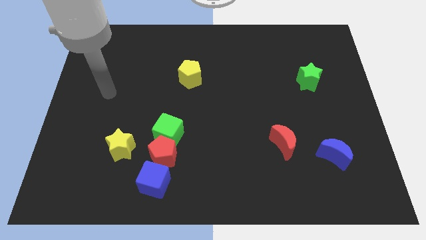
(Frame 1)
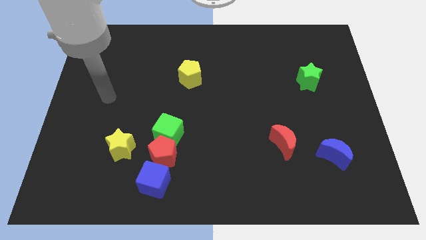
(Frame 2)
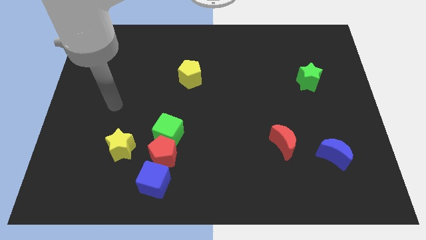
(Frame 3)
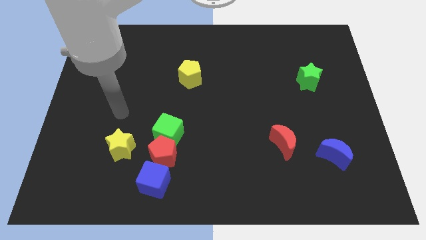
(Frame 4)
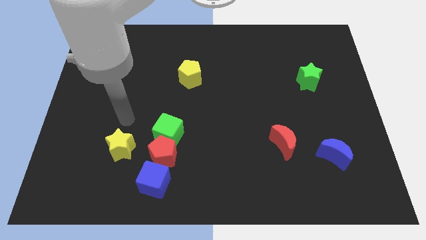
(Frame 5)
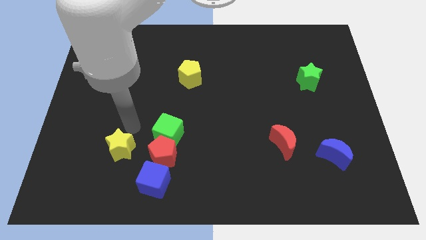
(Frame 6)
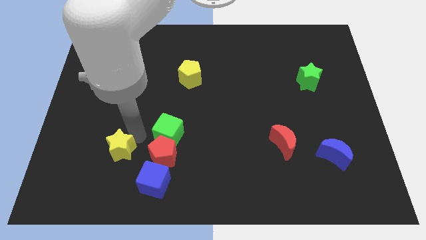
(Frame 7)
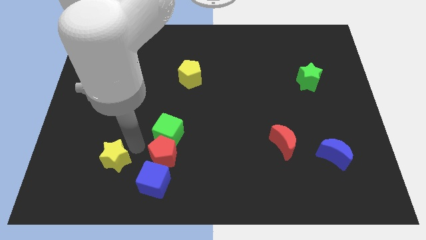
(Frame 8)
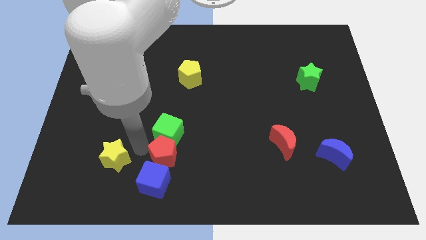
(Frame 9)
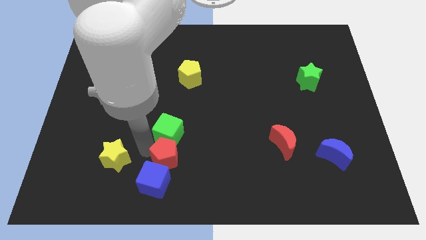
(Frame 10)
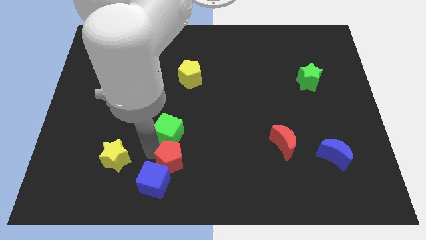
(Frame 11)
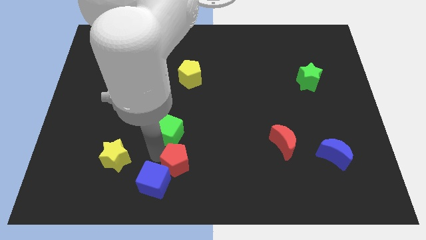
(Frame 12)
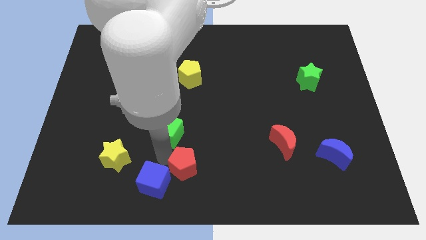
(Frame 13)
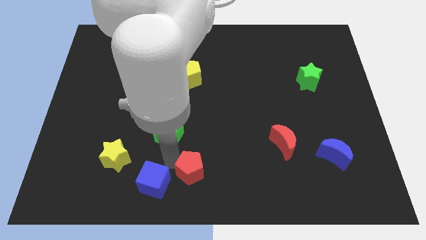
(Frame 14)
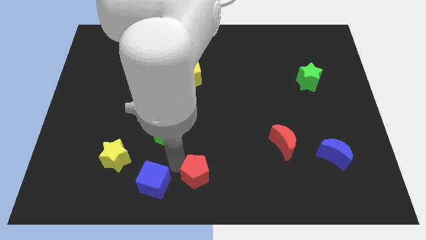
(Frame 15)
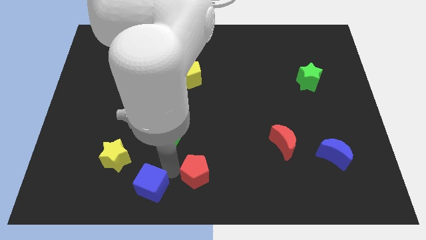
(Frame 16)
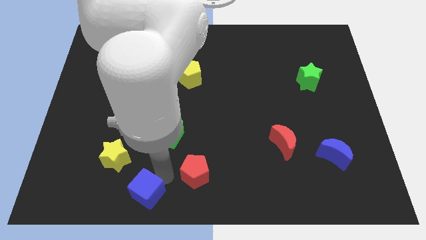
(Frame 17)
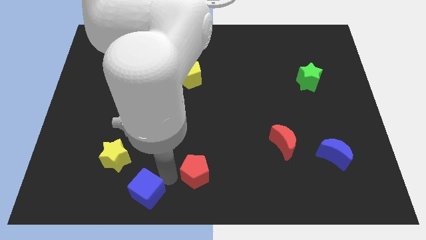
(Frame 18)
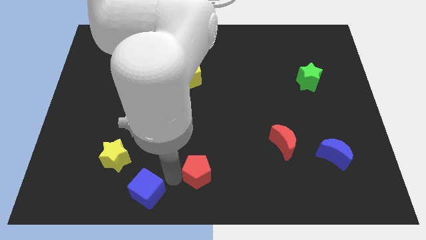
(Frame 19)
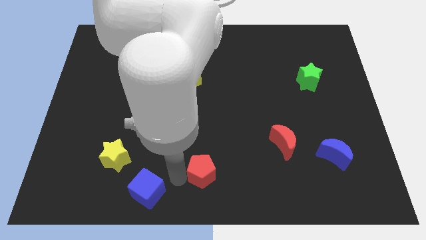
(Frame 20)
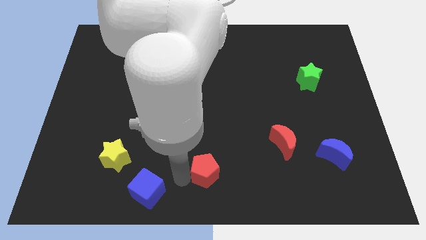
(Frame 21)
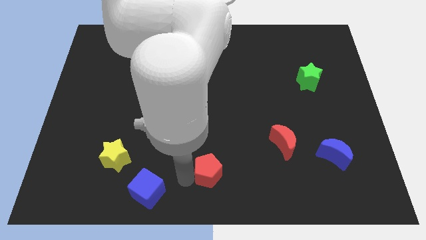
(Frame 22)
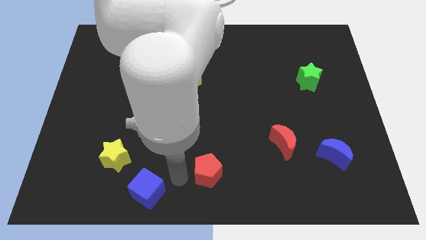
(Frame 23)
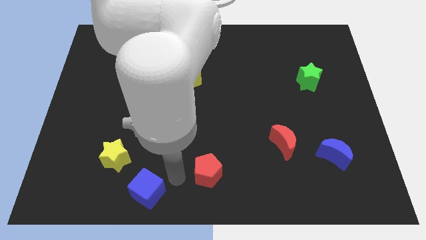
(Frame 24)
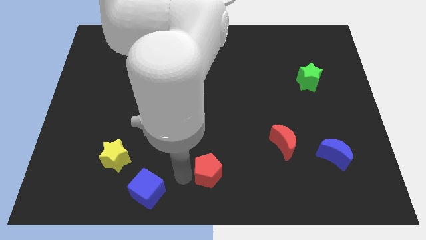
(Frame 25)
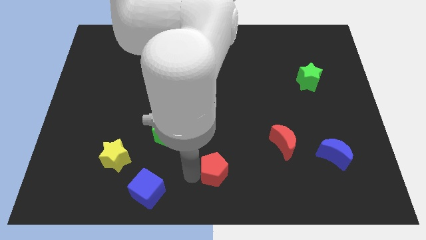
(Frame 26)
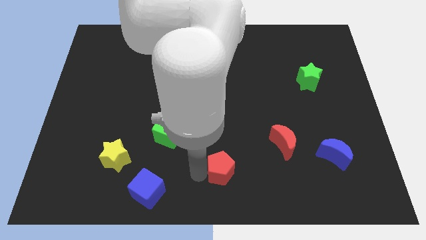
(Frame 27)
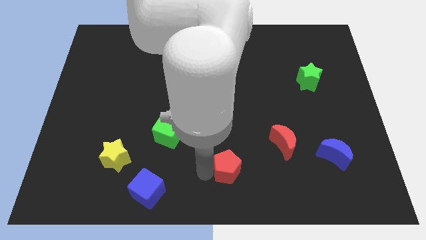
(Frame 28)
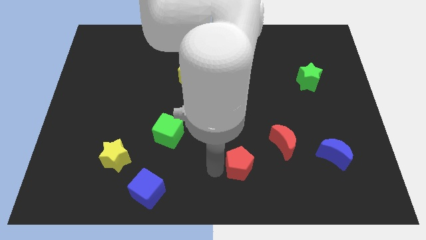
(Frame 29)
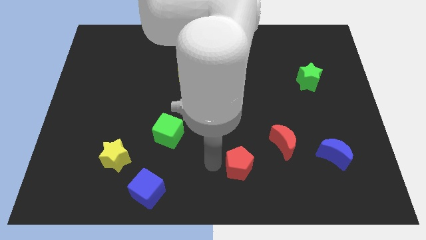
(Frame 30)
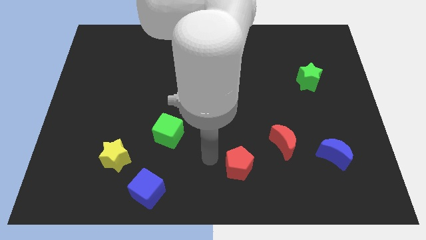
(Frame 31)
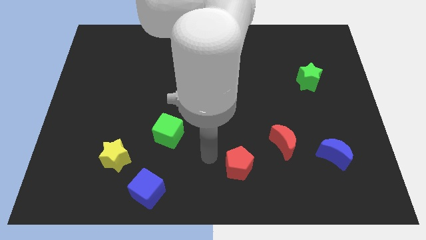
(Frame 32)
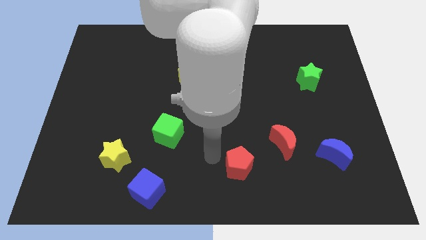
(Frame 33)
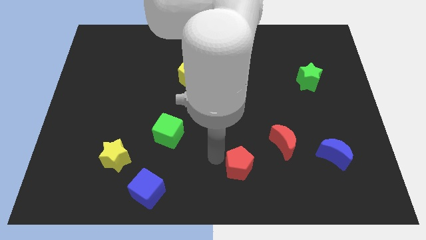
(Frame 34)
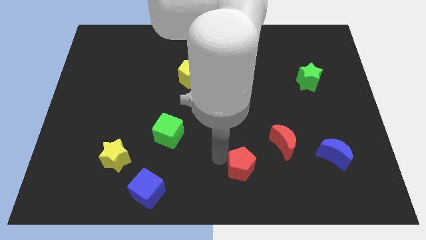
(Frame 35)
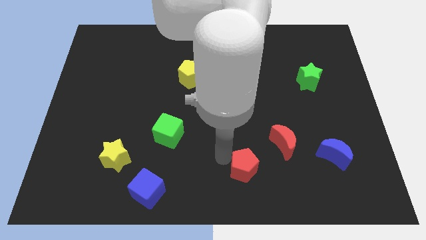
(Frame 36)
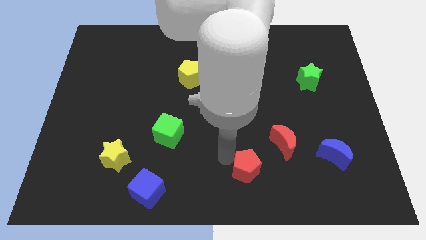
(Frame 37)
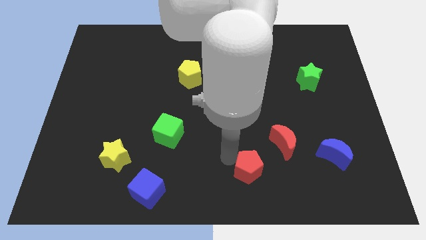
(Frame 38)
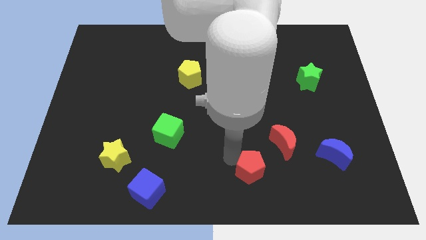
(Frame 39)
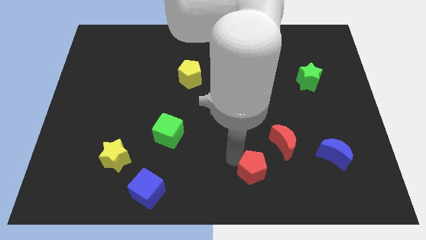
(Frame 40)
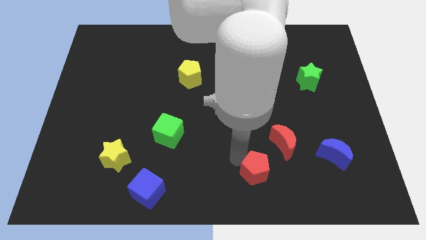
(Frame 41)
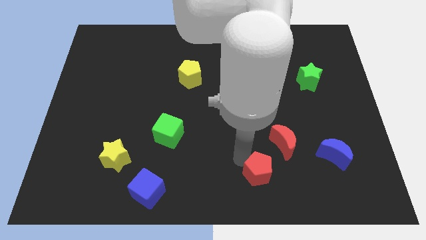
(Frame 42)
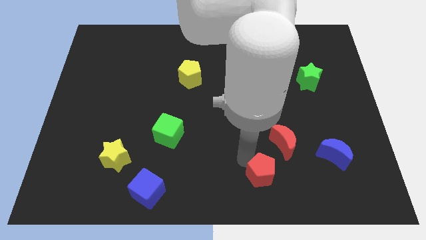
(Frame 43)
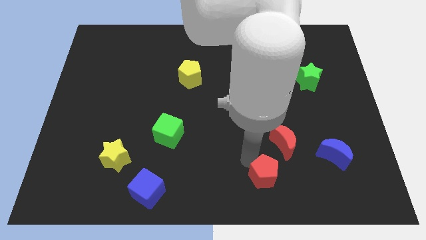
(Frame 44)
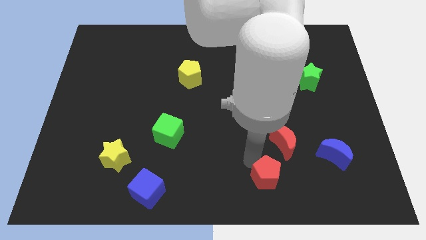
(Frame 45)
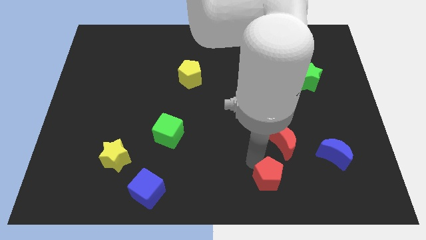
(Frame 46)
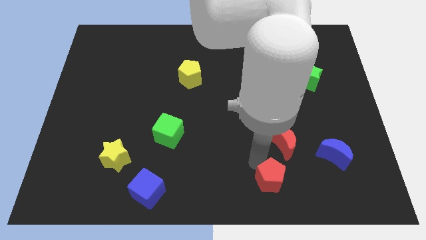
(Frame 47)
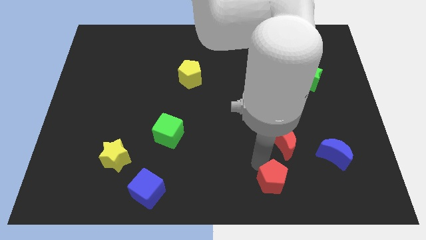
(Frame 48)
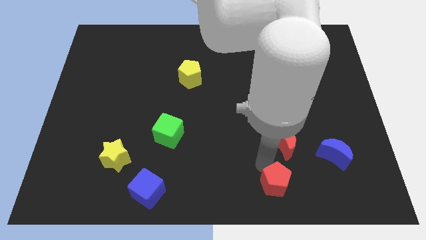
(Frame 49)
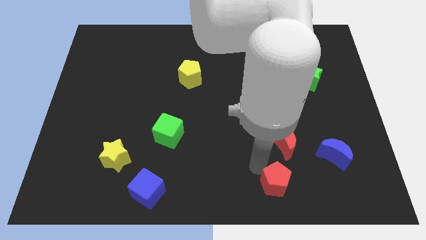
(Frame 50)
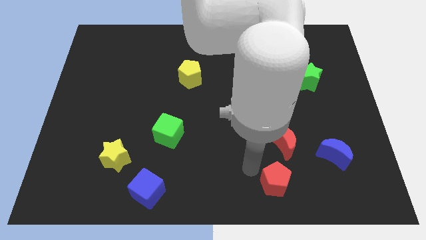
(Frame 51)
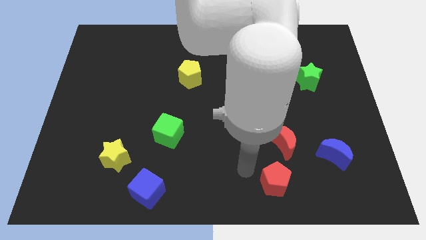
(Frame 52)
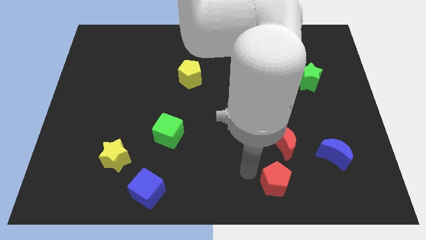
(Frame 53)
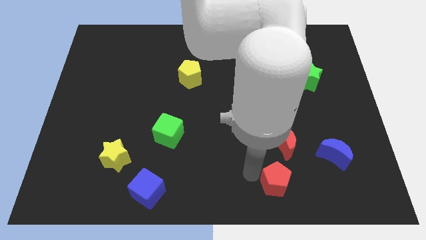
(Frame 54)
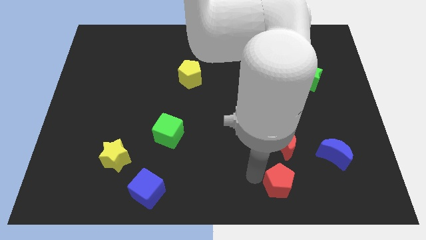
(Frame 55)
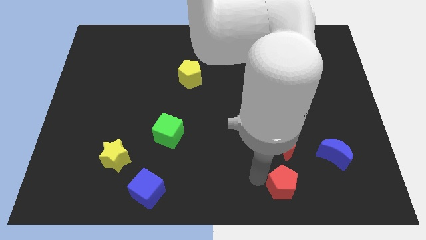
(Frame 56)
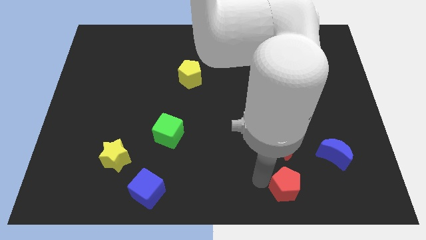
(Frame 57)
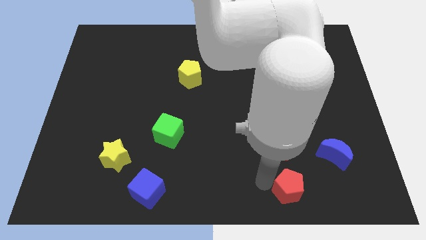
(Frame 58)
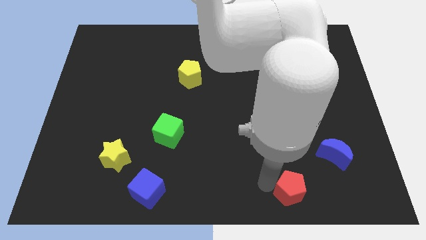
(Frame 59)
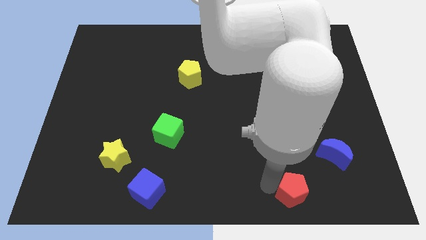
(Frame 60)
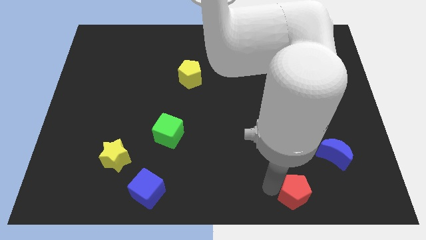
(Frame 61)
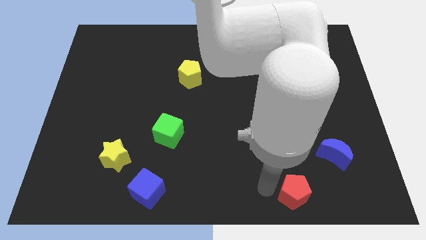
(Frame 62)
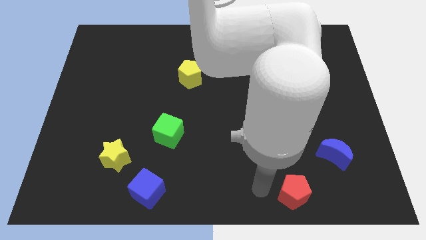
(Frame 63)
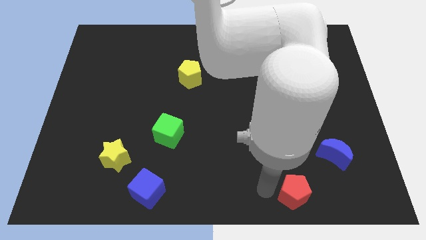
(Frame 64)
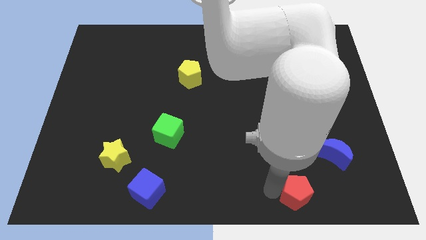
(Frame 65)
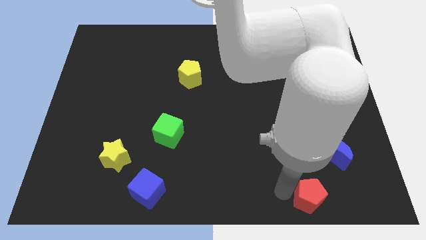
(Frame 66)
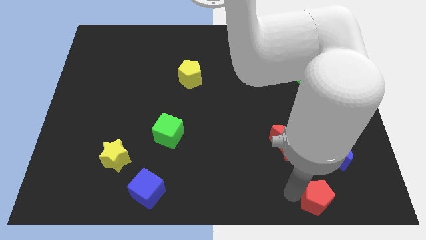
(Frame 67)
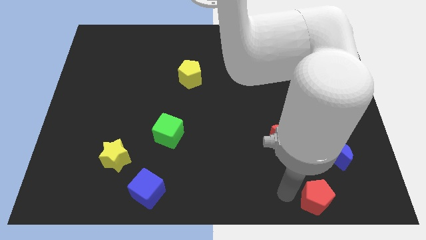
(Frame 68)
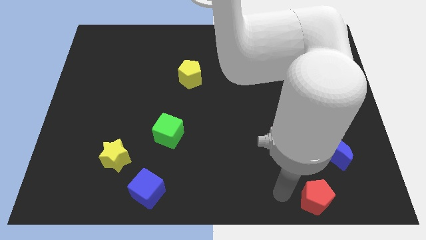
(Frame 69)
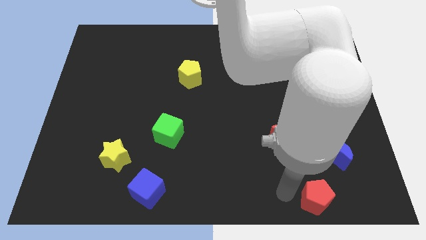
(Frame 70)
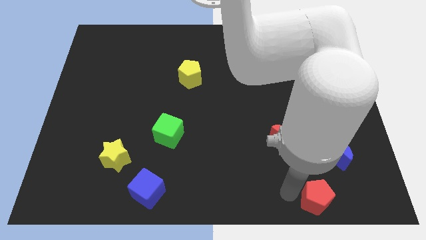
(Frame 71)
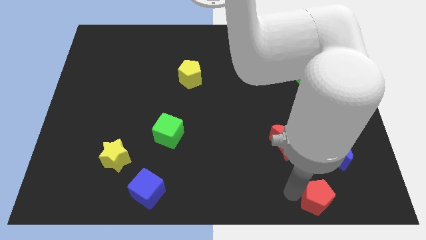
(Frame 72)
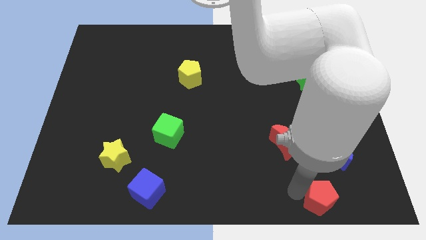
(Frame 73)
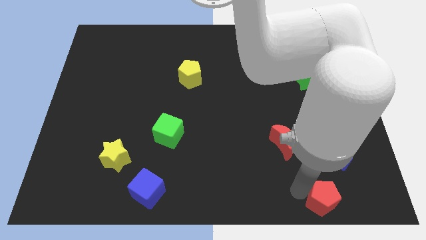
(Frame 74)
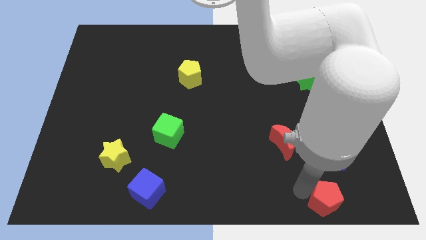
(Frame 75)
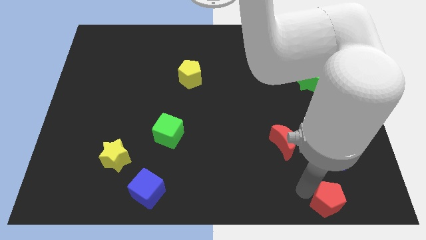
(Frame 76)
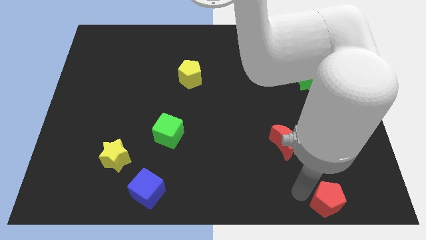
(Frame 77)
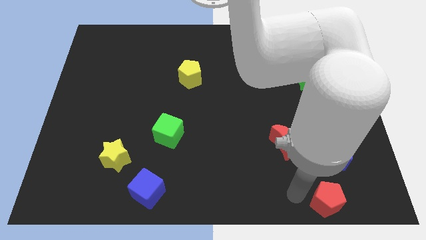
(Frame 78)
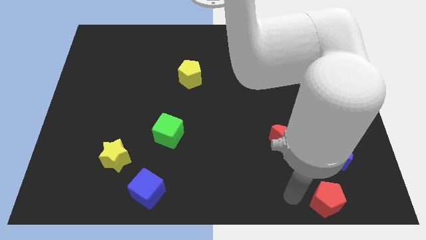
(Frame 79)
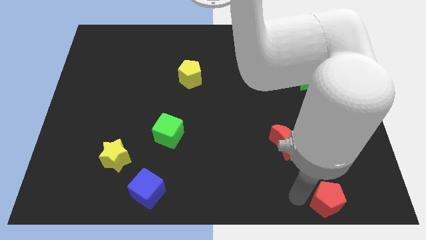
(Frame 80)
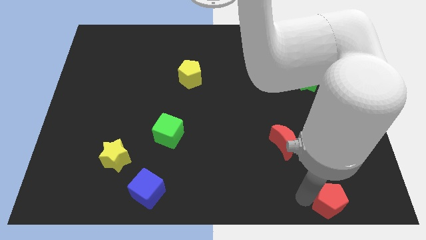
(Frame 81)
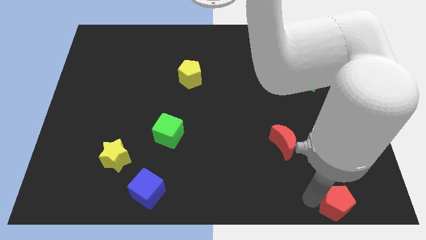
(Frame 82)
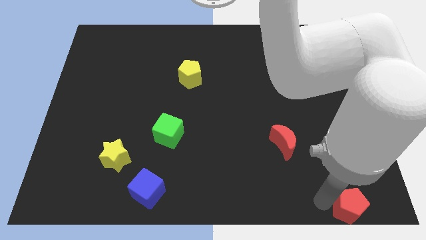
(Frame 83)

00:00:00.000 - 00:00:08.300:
move the red pentagon to the bottom right corner
